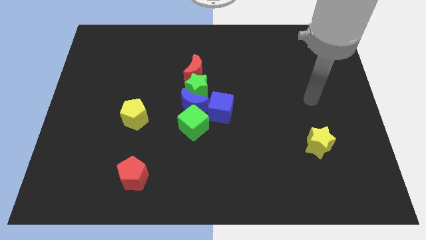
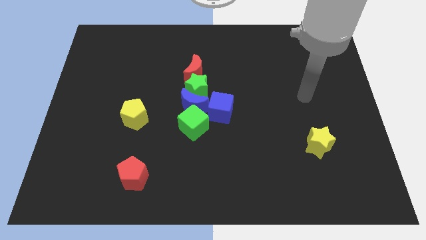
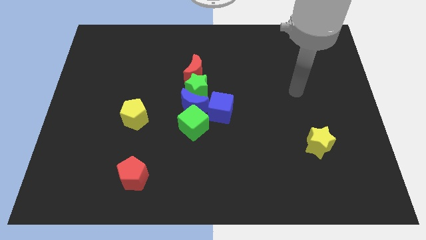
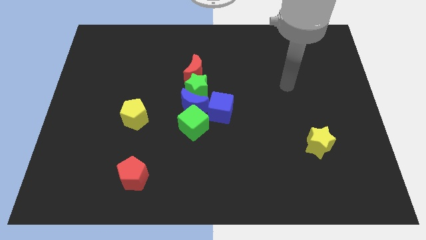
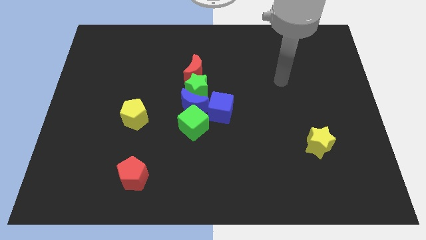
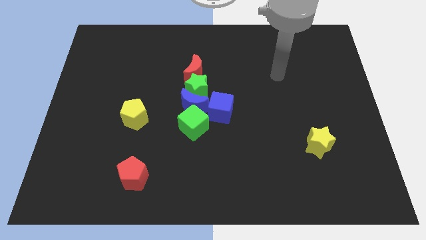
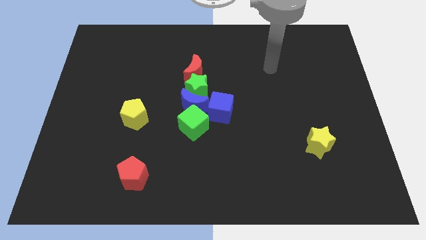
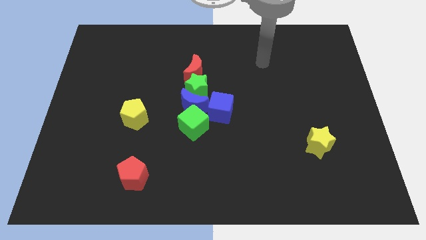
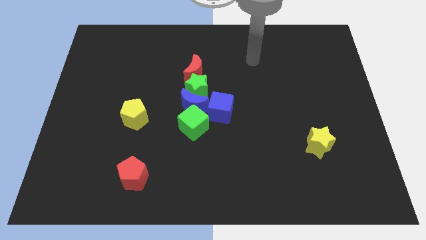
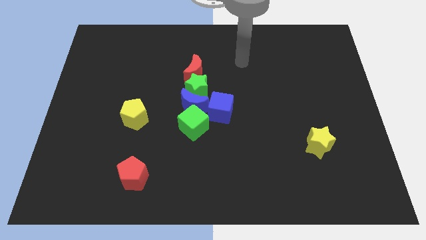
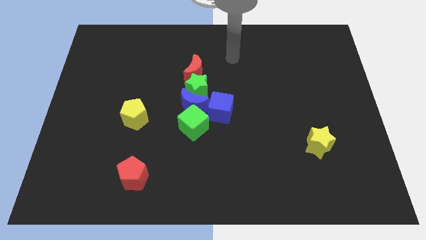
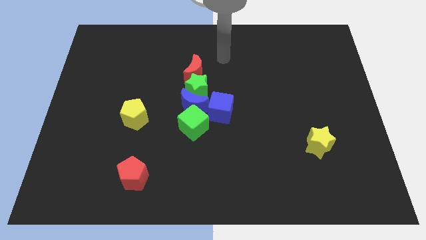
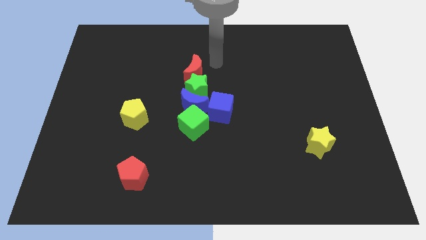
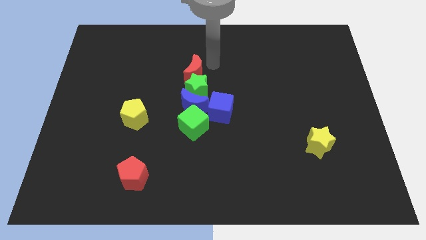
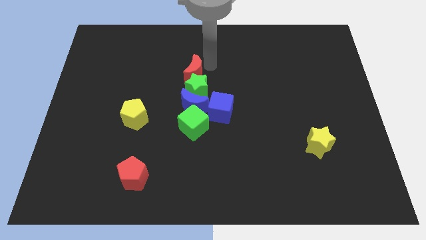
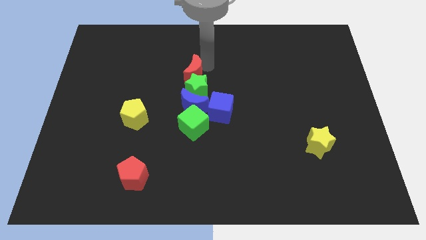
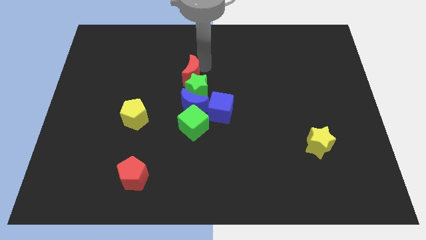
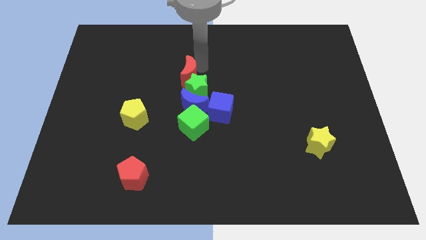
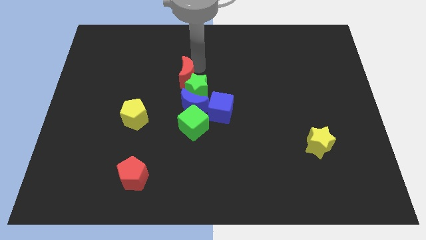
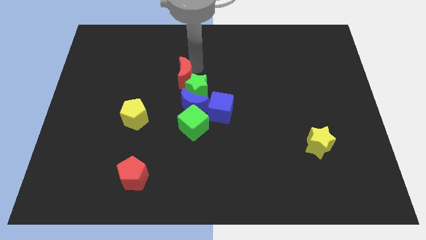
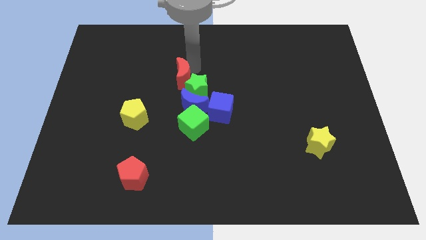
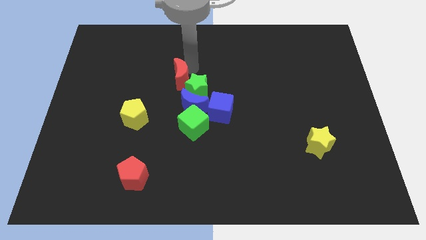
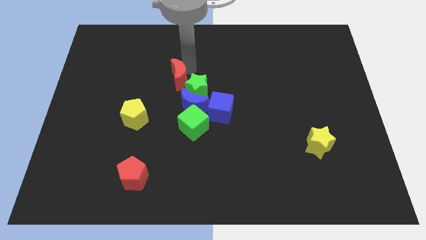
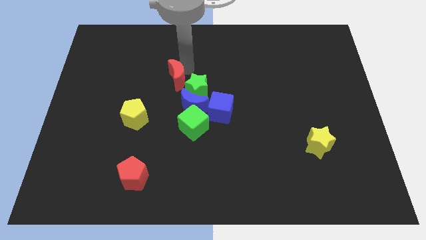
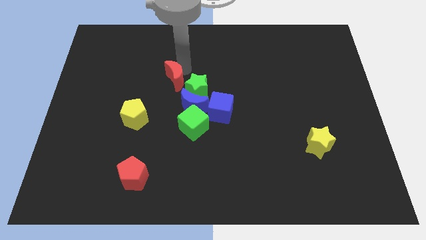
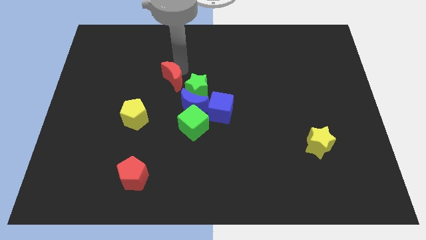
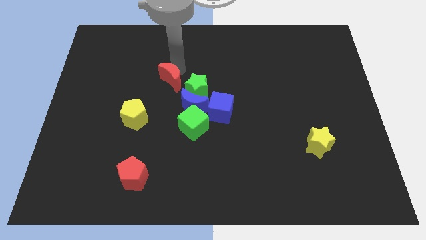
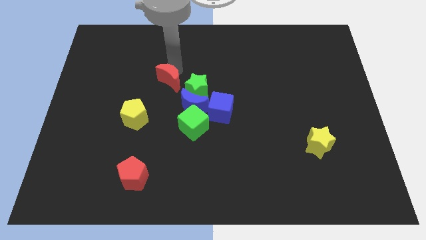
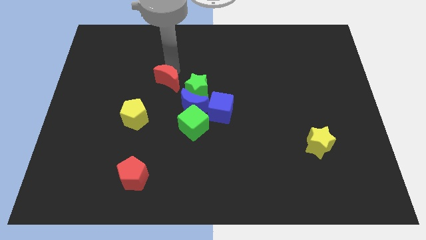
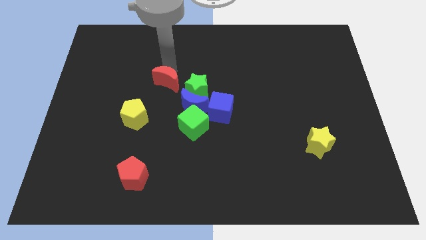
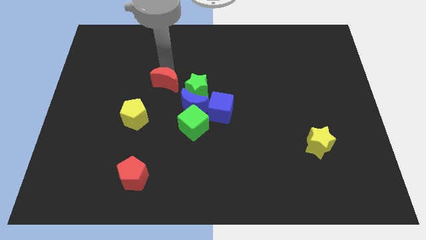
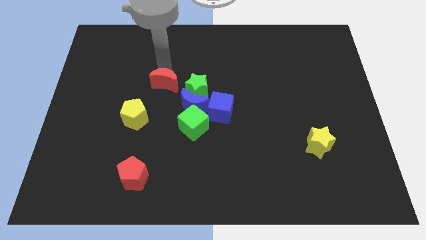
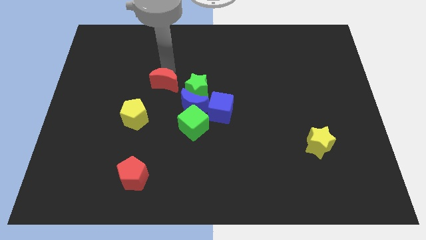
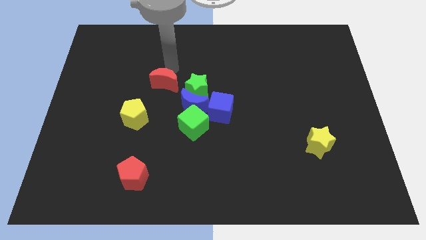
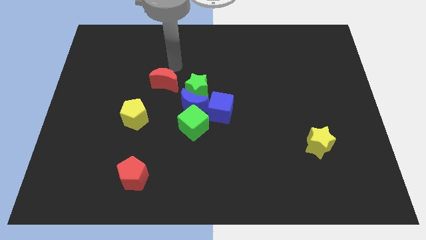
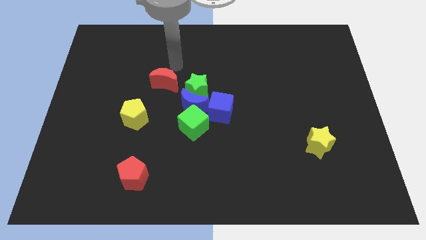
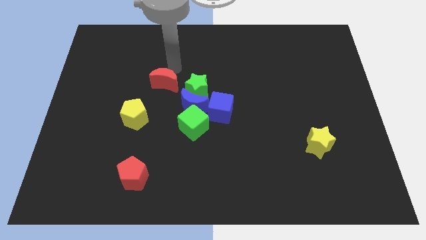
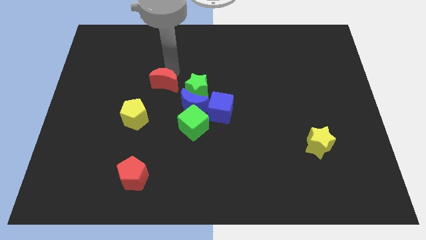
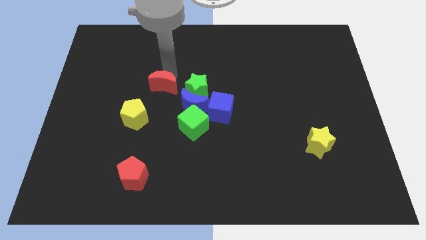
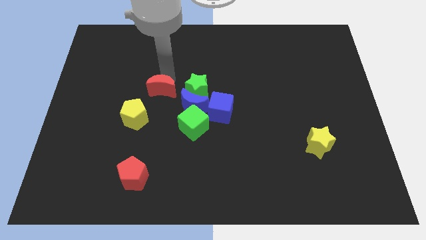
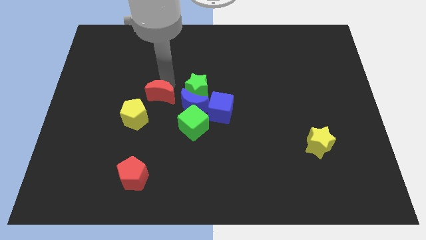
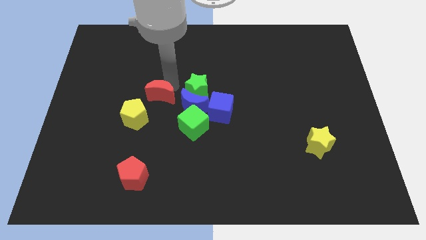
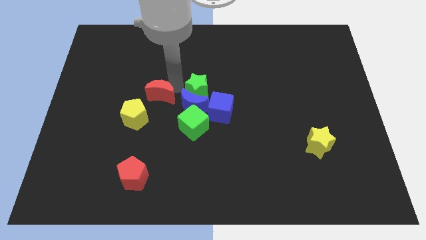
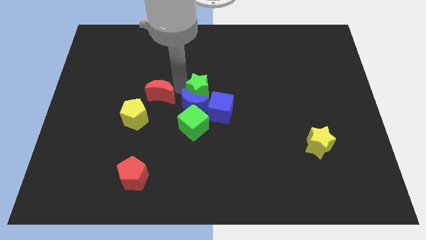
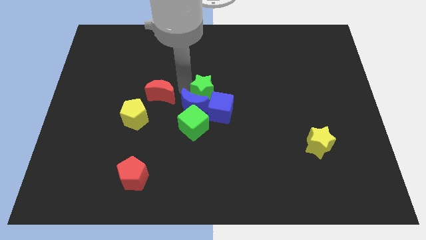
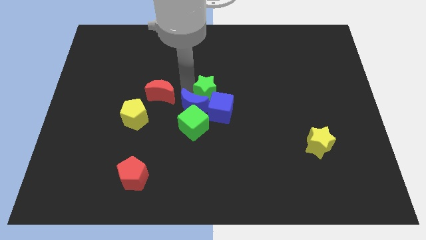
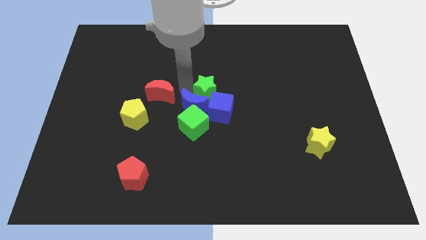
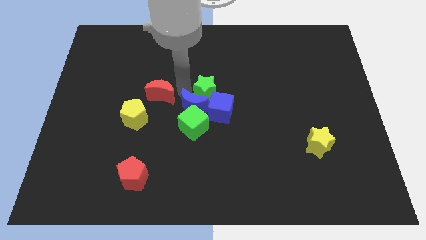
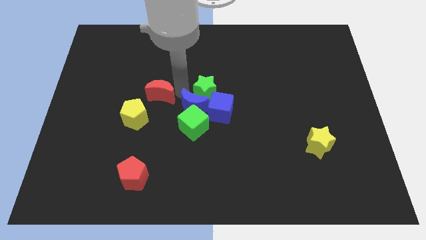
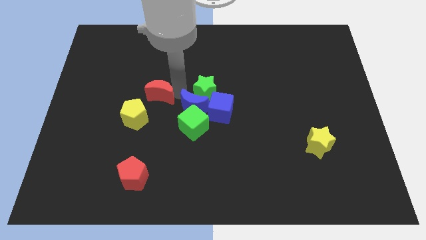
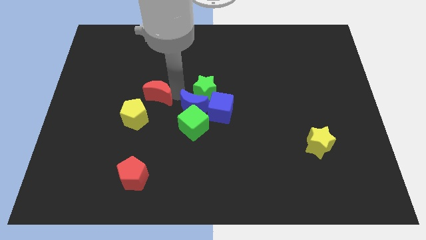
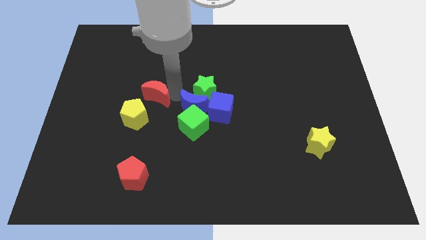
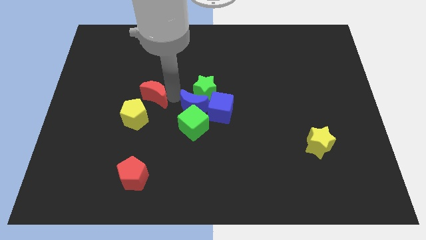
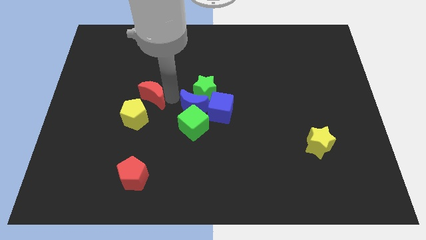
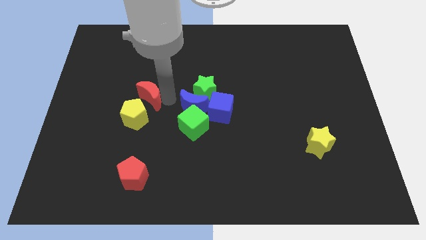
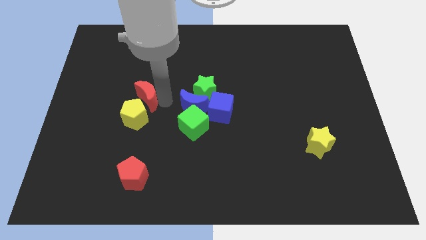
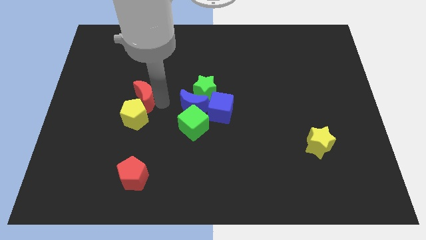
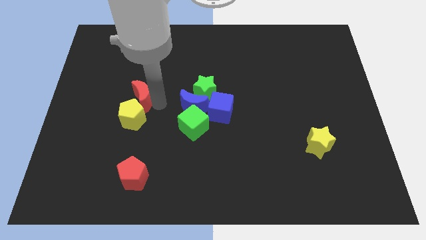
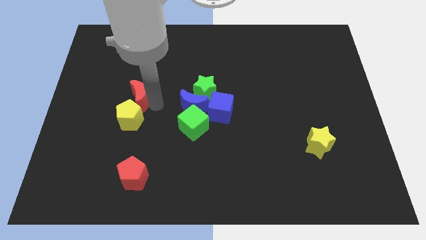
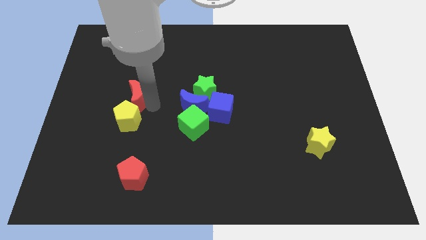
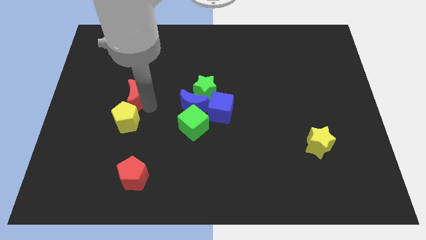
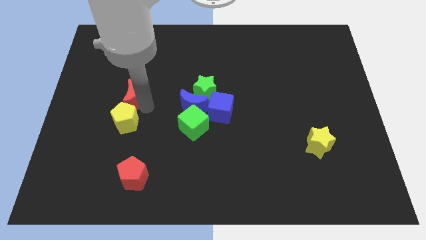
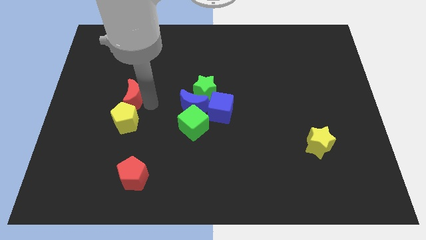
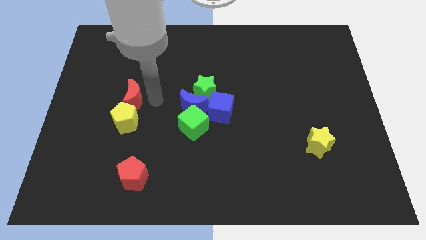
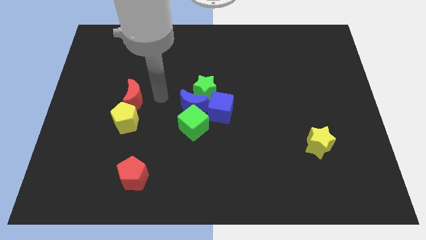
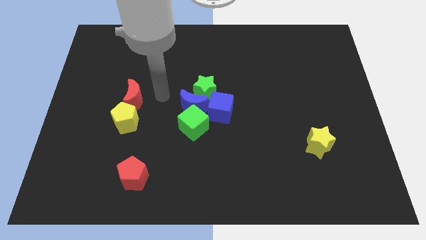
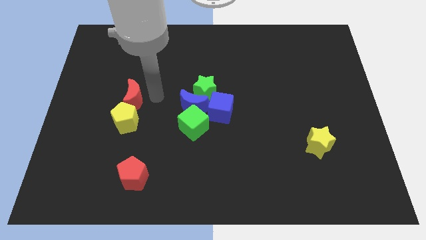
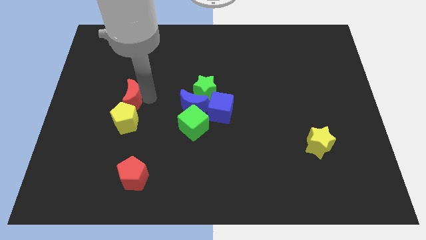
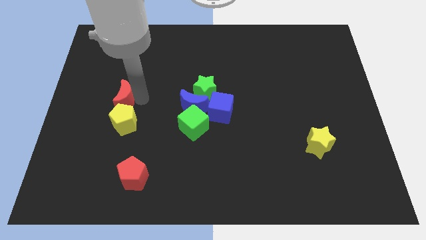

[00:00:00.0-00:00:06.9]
push the red moon diagonally up and to the left of the yellow pentagon

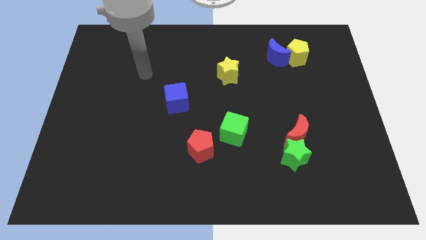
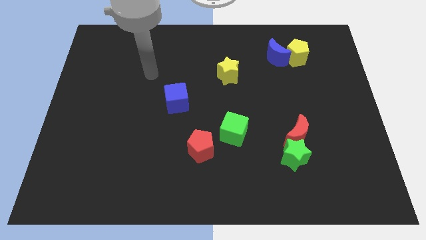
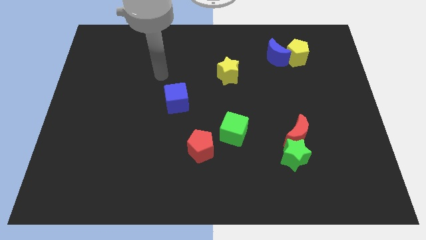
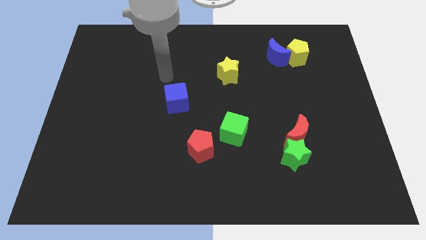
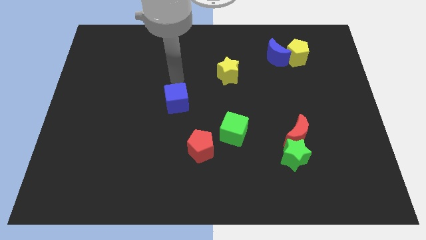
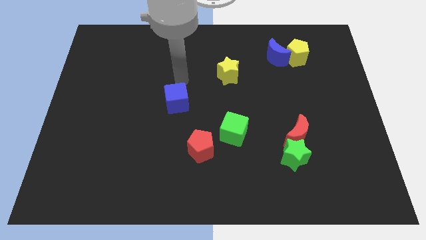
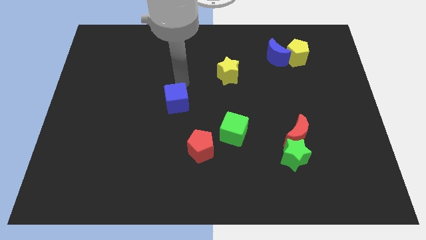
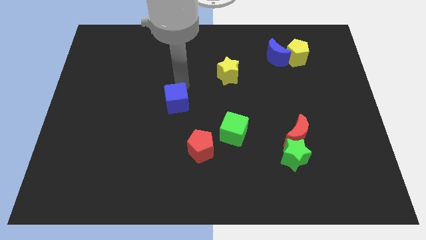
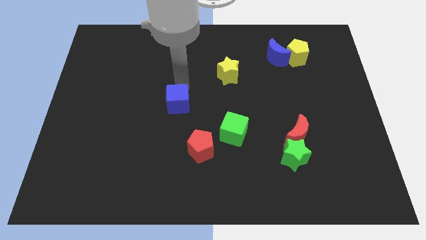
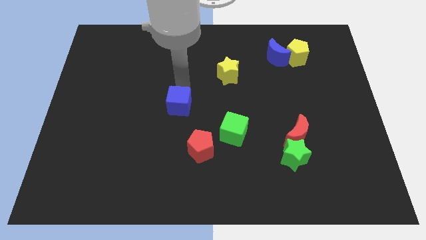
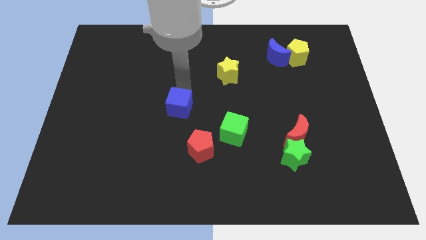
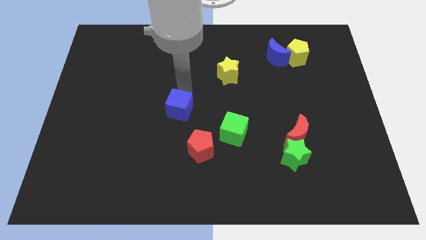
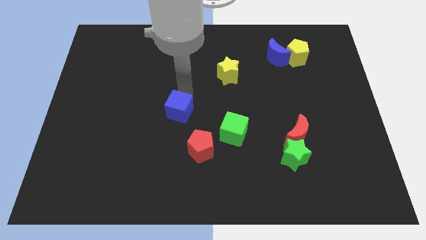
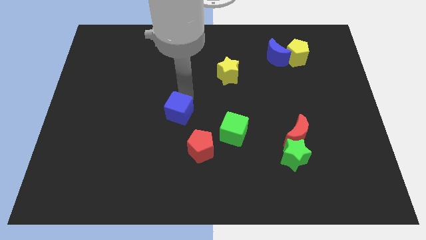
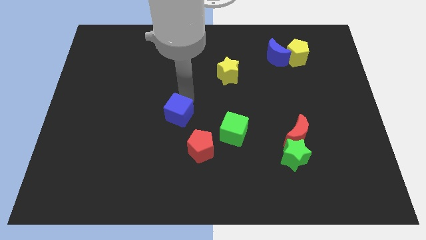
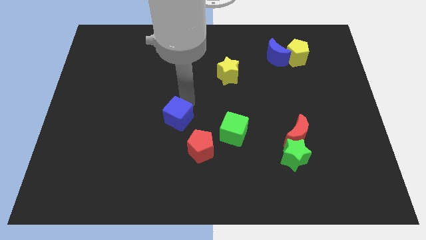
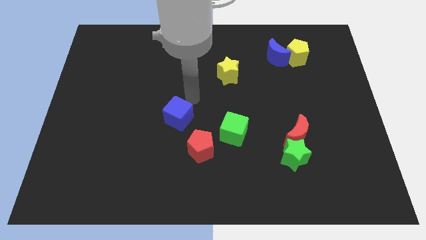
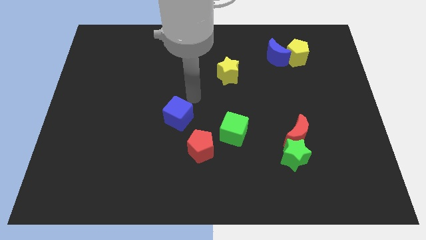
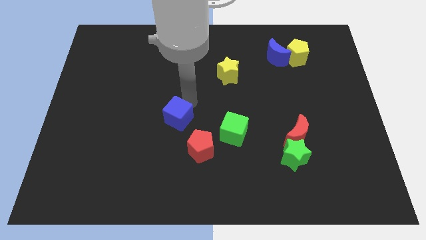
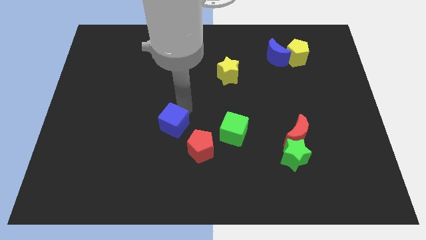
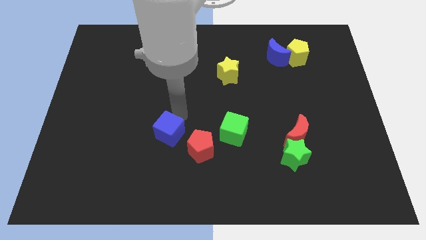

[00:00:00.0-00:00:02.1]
push the blue cube to the left side of the red pentagon
